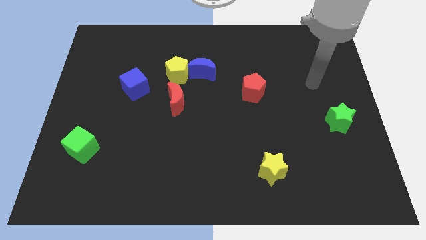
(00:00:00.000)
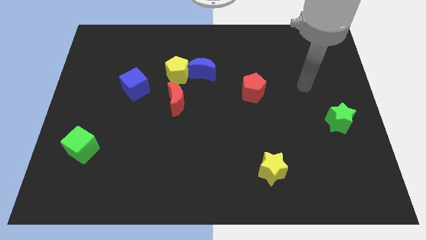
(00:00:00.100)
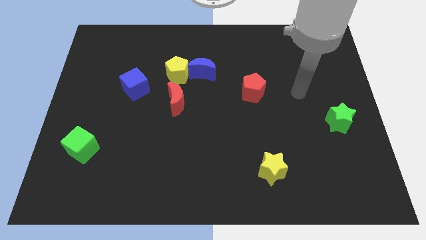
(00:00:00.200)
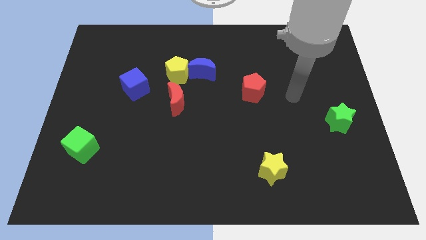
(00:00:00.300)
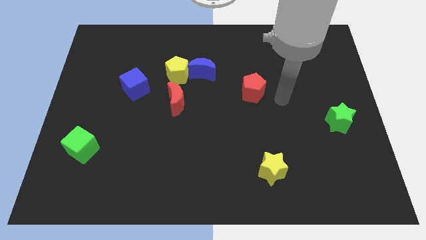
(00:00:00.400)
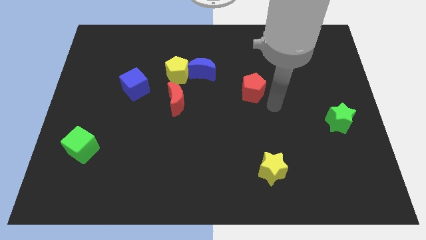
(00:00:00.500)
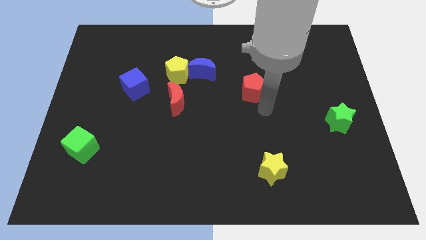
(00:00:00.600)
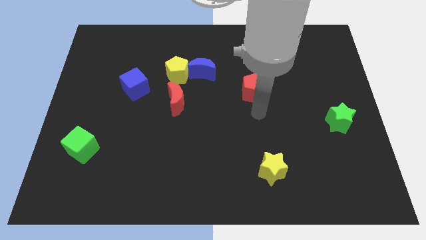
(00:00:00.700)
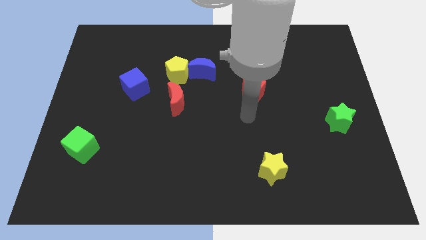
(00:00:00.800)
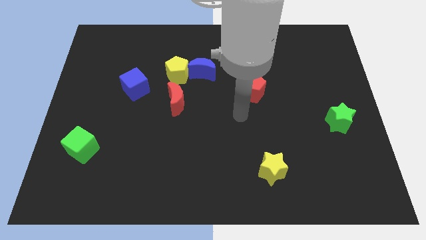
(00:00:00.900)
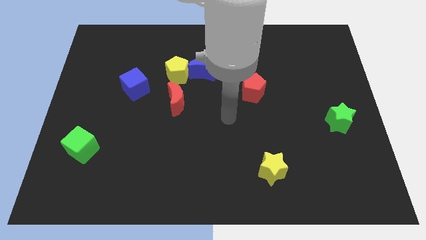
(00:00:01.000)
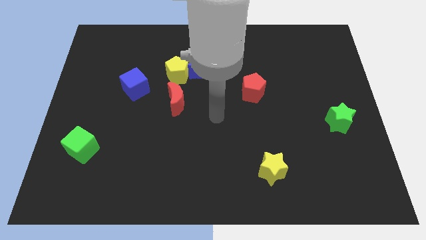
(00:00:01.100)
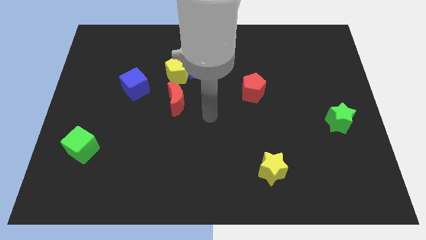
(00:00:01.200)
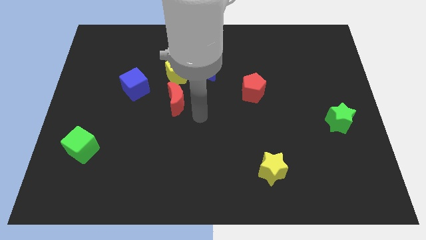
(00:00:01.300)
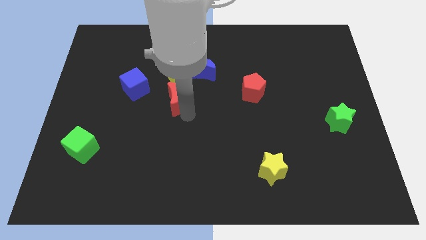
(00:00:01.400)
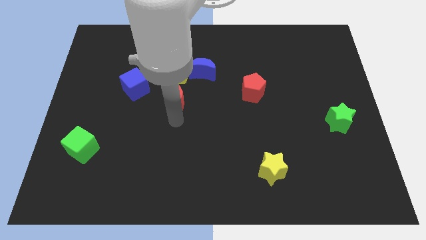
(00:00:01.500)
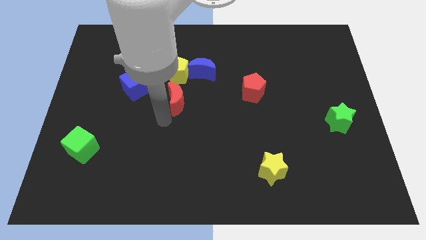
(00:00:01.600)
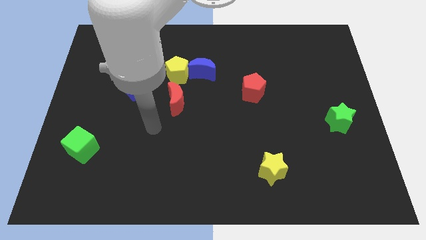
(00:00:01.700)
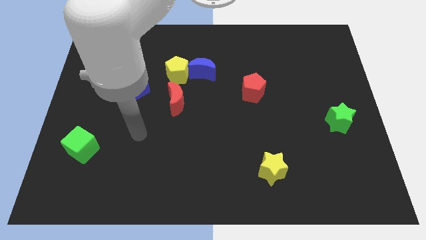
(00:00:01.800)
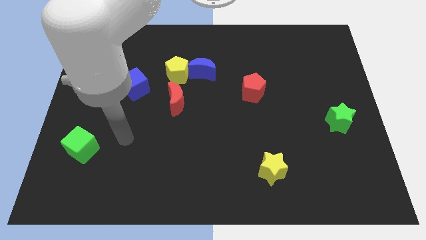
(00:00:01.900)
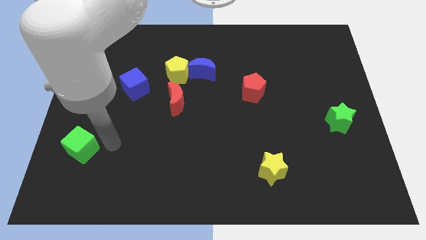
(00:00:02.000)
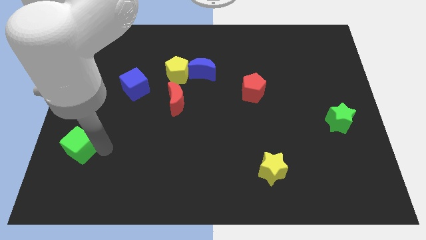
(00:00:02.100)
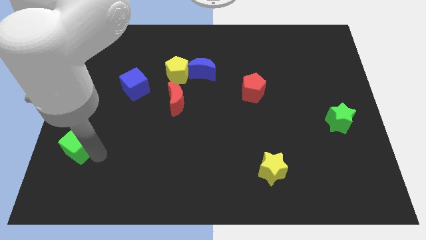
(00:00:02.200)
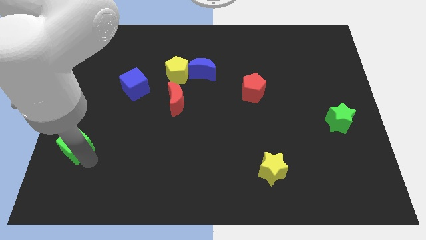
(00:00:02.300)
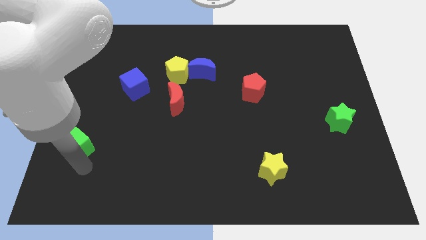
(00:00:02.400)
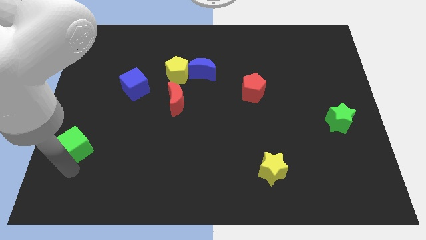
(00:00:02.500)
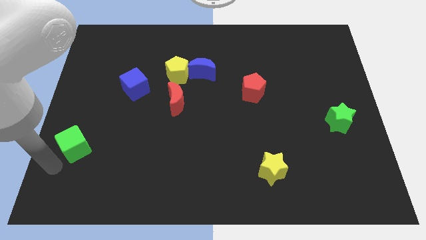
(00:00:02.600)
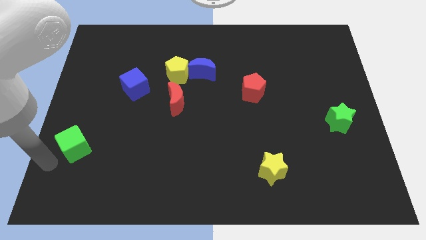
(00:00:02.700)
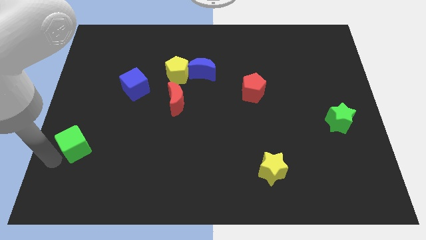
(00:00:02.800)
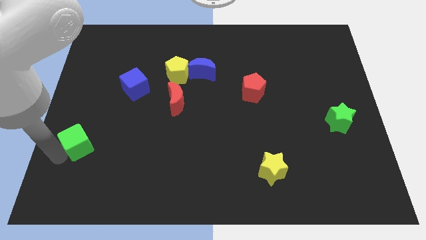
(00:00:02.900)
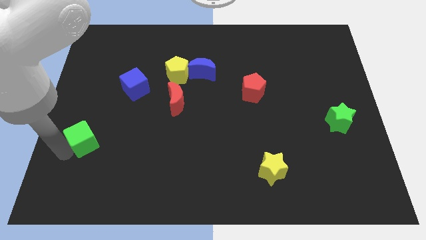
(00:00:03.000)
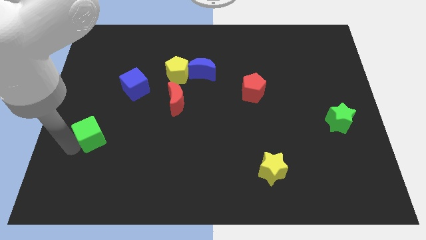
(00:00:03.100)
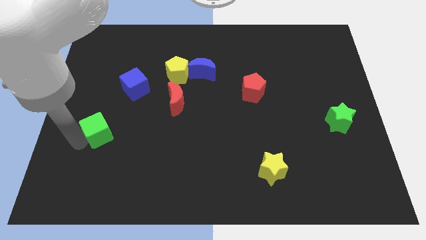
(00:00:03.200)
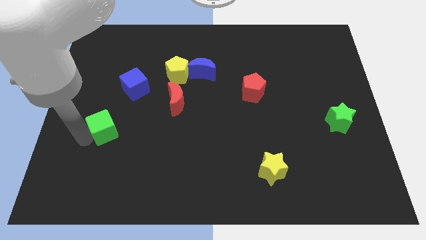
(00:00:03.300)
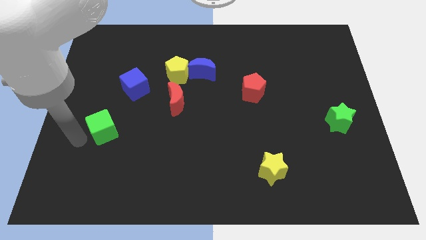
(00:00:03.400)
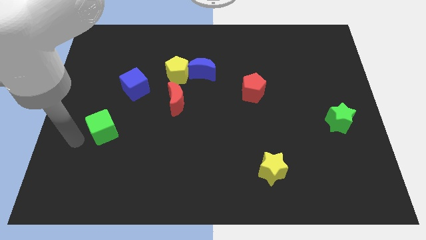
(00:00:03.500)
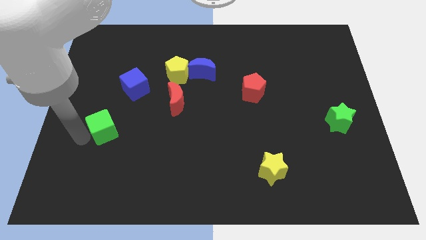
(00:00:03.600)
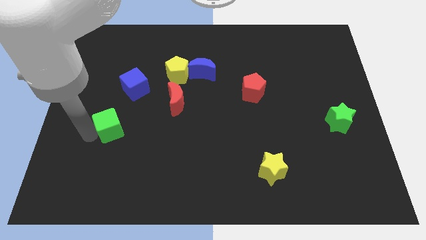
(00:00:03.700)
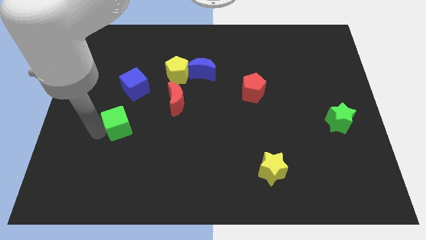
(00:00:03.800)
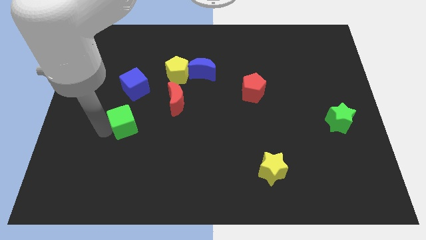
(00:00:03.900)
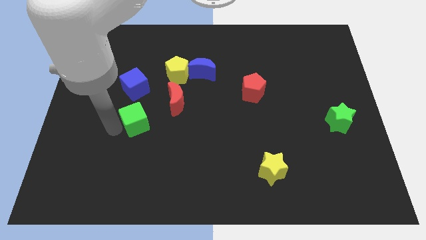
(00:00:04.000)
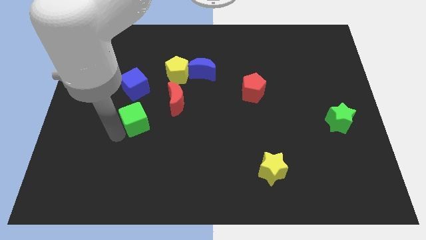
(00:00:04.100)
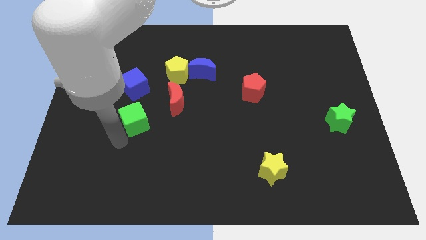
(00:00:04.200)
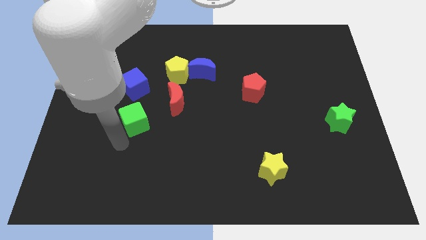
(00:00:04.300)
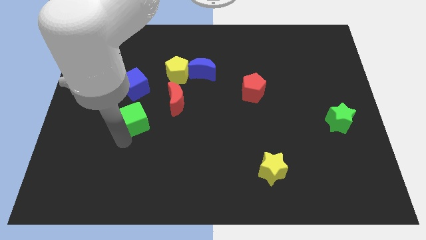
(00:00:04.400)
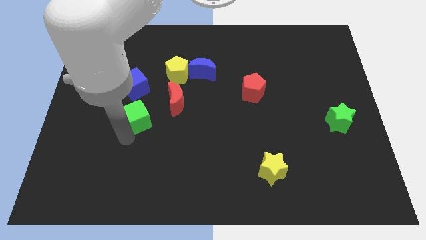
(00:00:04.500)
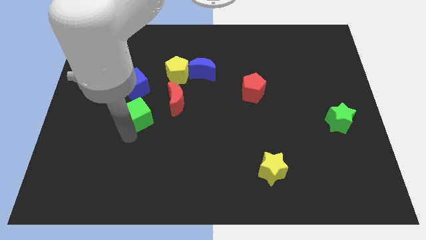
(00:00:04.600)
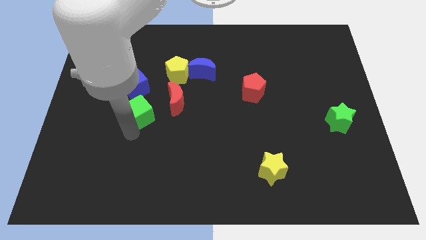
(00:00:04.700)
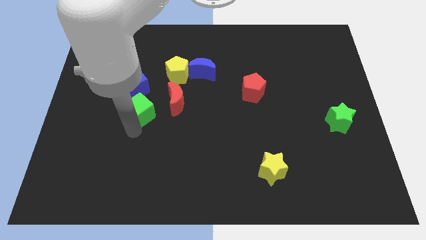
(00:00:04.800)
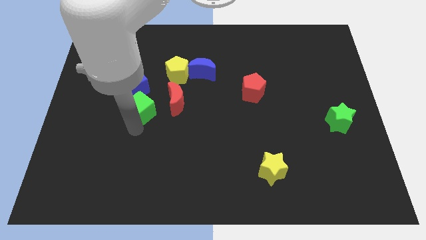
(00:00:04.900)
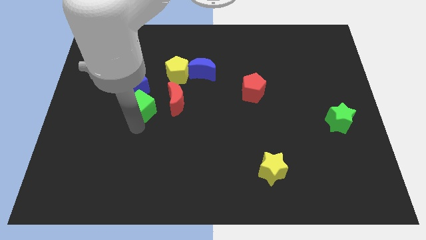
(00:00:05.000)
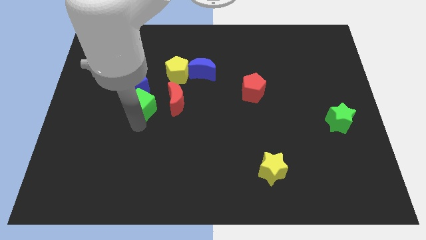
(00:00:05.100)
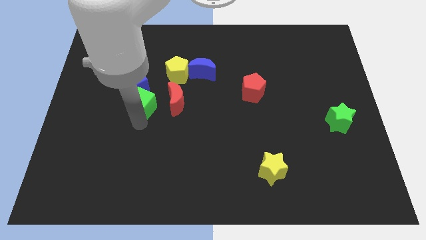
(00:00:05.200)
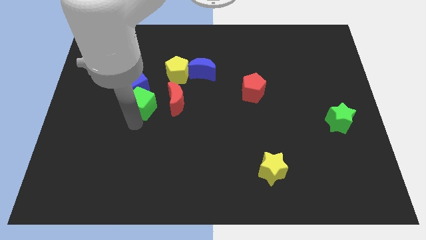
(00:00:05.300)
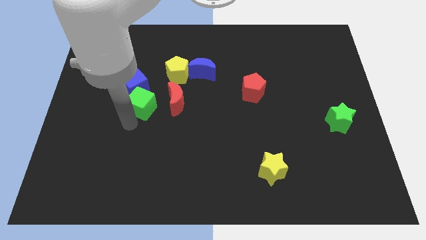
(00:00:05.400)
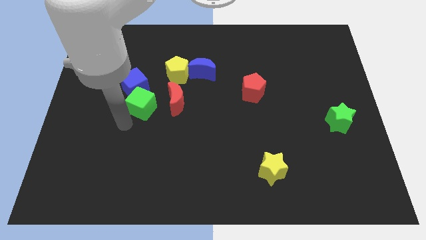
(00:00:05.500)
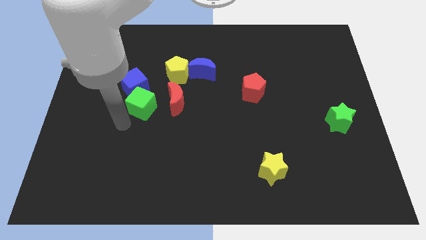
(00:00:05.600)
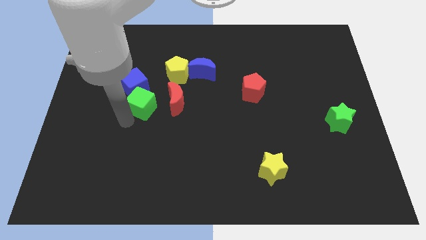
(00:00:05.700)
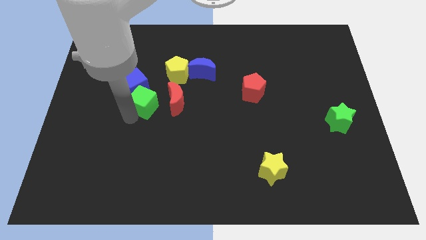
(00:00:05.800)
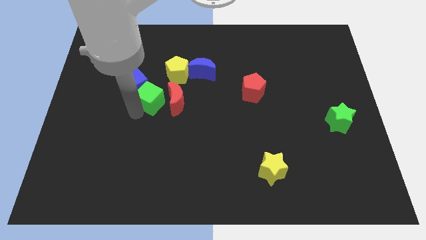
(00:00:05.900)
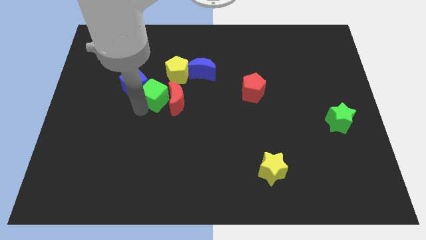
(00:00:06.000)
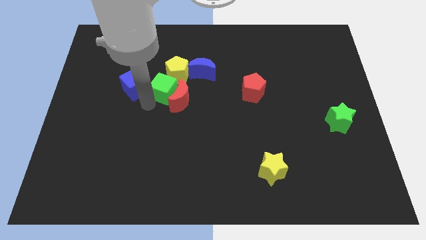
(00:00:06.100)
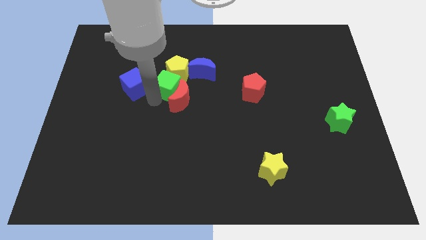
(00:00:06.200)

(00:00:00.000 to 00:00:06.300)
move the green cube next to the yellow pentagon

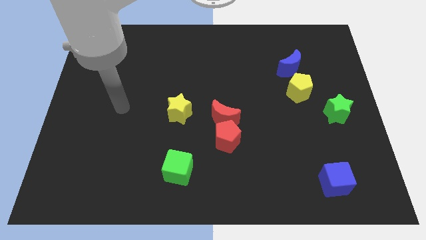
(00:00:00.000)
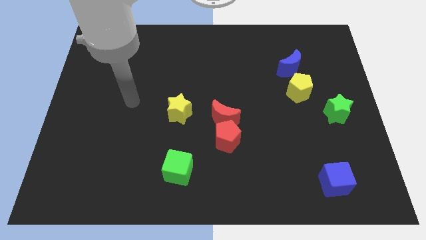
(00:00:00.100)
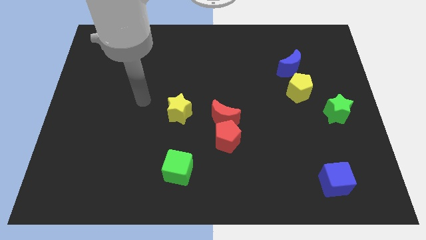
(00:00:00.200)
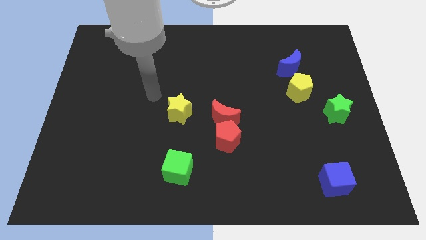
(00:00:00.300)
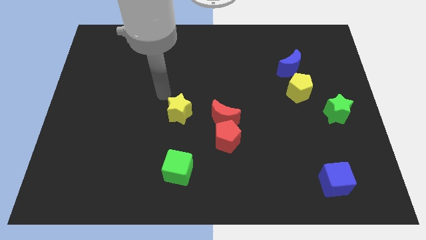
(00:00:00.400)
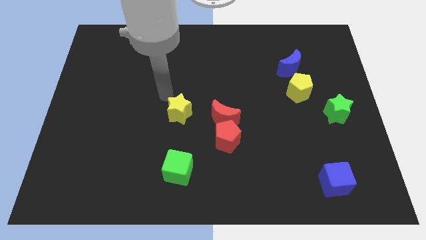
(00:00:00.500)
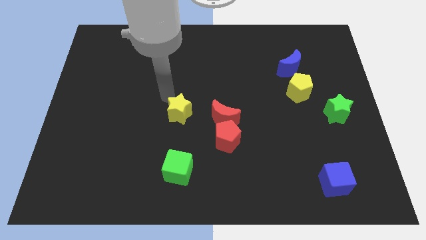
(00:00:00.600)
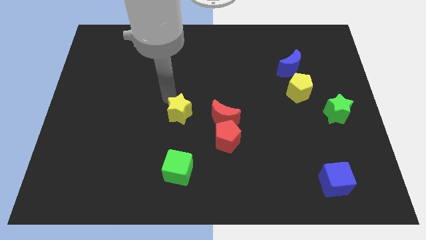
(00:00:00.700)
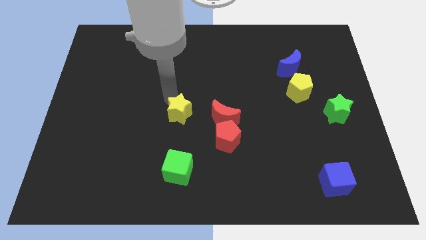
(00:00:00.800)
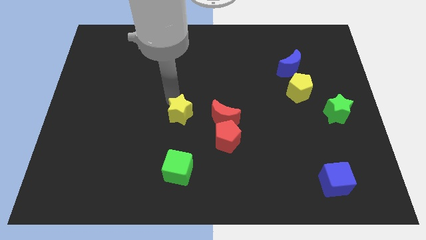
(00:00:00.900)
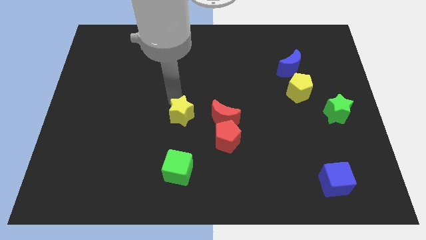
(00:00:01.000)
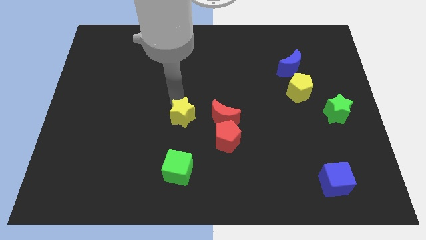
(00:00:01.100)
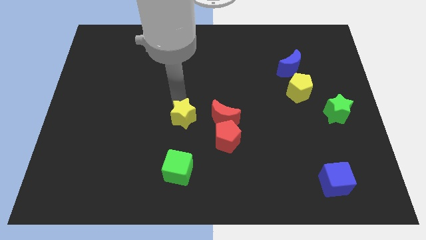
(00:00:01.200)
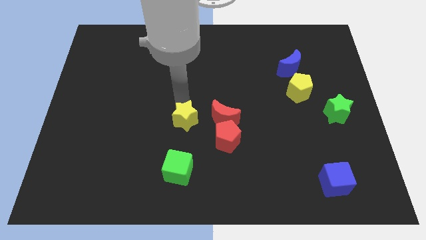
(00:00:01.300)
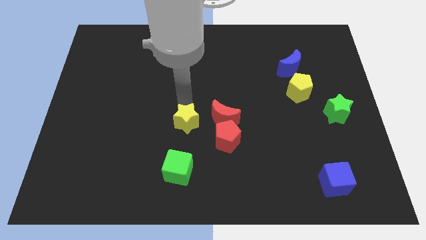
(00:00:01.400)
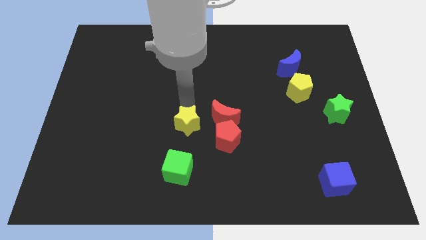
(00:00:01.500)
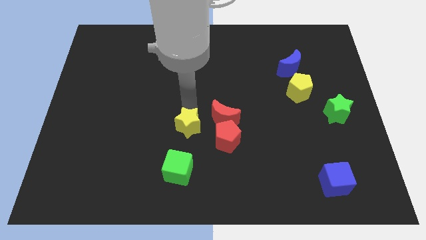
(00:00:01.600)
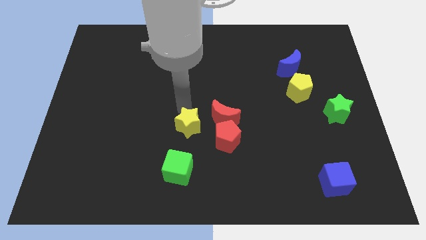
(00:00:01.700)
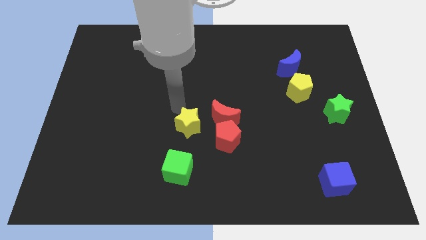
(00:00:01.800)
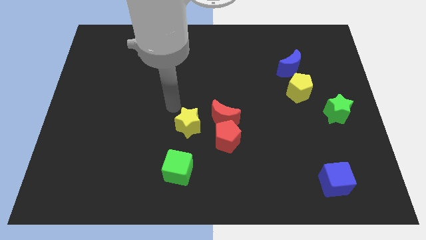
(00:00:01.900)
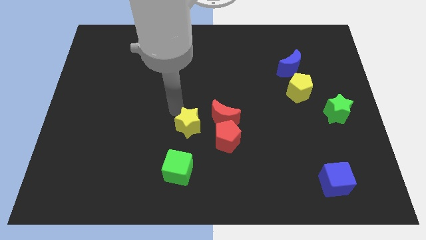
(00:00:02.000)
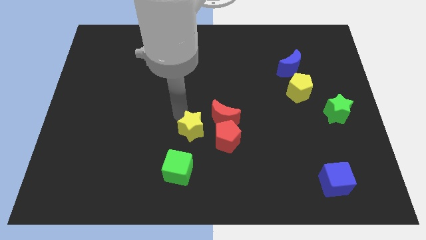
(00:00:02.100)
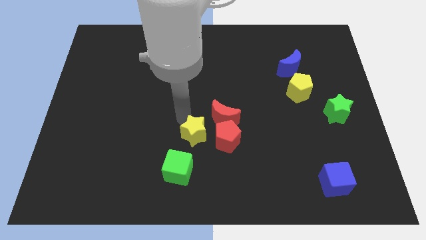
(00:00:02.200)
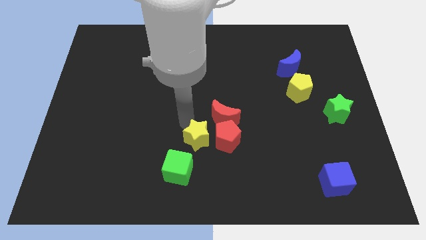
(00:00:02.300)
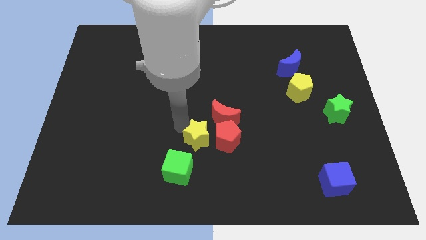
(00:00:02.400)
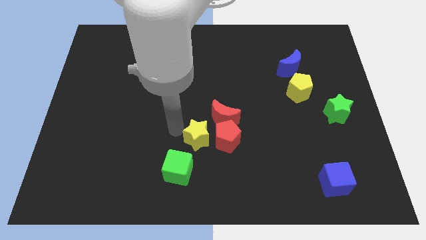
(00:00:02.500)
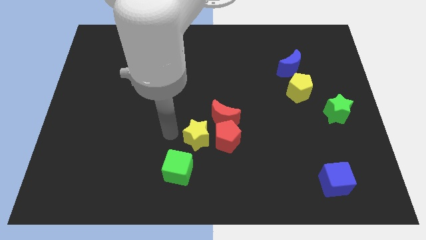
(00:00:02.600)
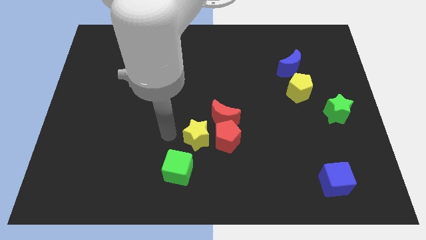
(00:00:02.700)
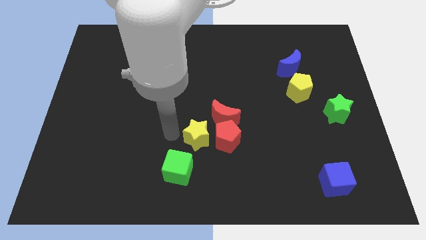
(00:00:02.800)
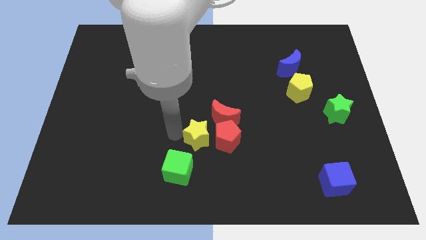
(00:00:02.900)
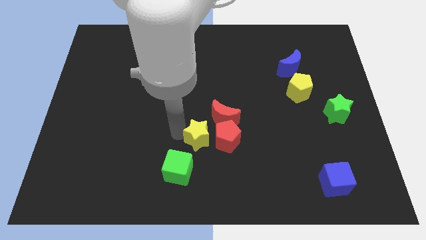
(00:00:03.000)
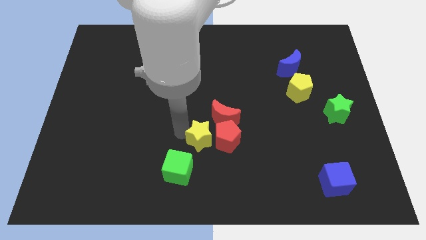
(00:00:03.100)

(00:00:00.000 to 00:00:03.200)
slide the yellow star towards the red pentagon
